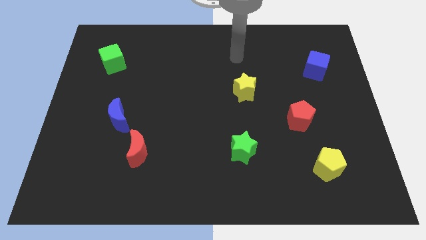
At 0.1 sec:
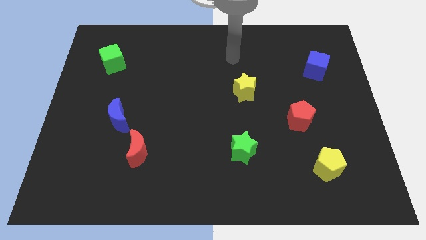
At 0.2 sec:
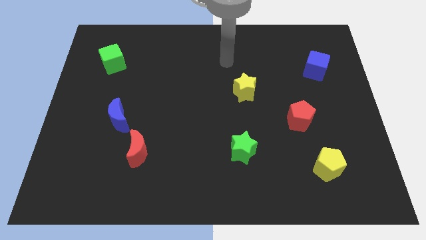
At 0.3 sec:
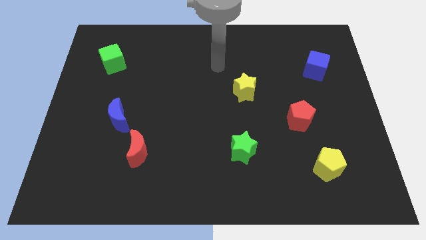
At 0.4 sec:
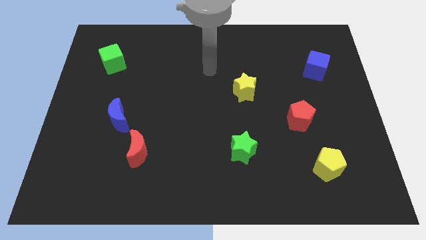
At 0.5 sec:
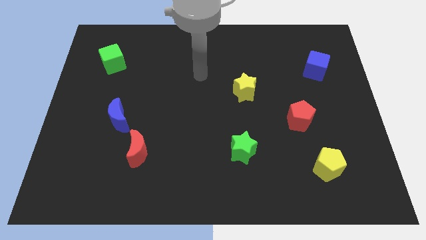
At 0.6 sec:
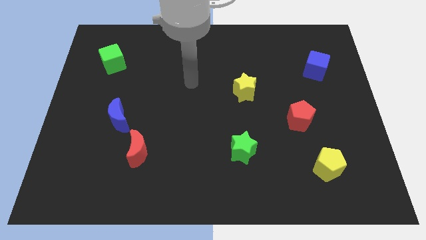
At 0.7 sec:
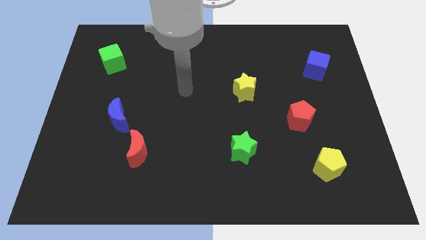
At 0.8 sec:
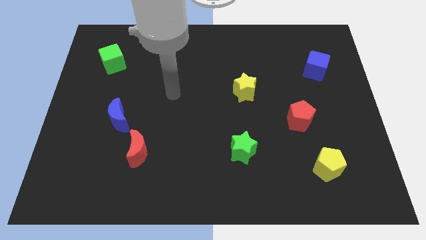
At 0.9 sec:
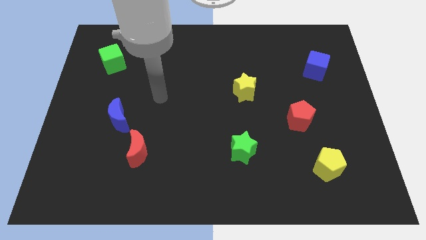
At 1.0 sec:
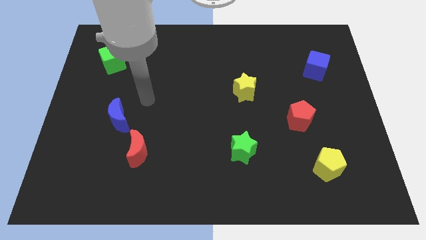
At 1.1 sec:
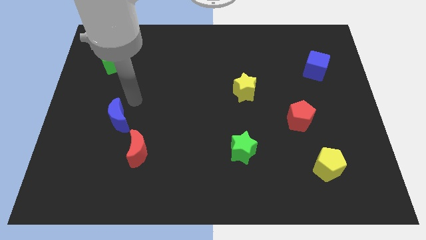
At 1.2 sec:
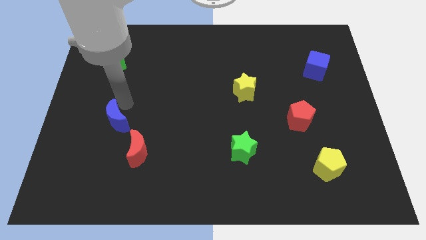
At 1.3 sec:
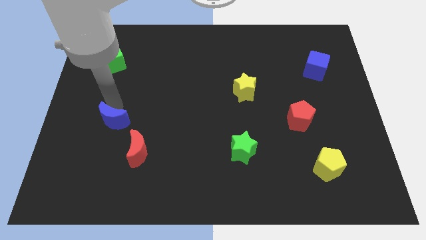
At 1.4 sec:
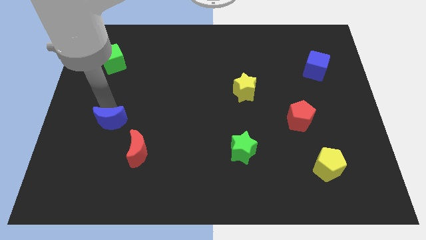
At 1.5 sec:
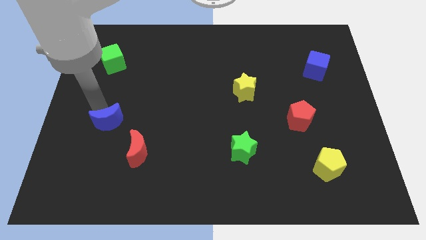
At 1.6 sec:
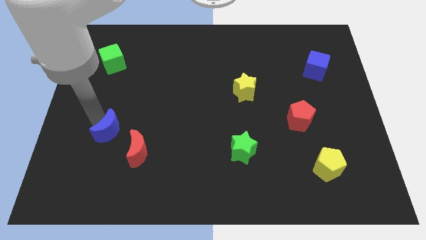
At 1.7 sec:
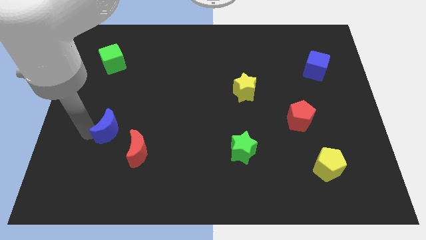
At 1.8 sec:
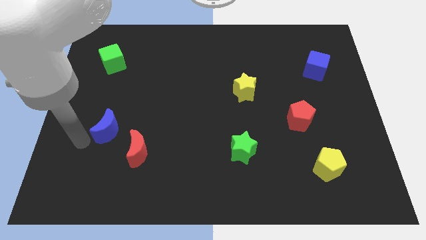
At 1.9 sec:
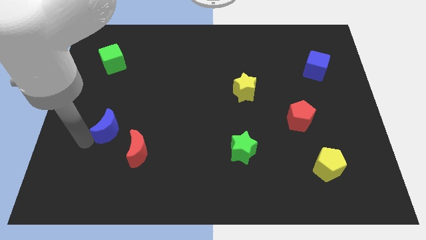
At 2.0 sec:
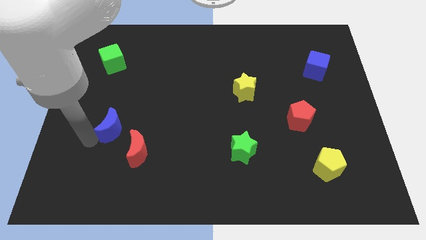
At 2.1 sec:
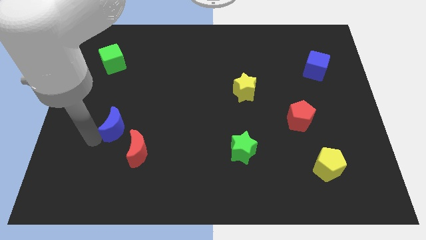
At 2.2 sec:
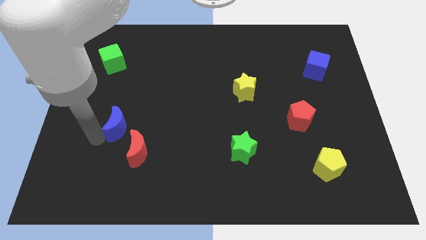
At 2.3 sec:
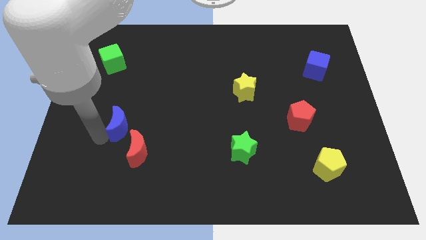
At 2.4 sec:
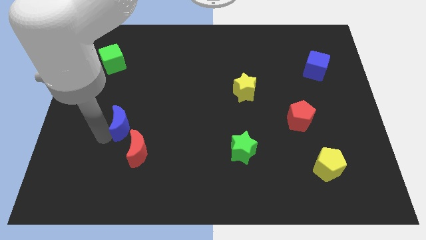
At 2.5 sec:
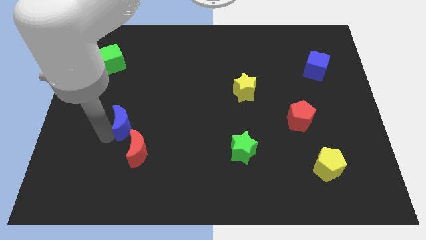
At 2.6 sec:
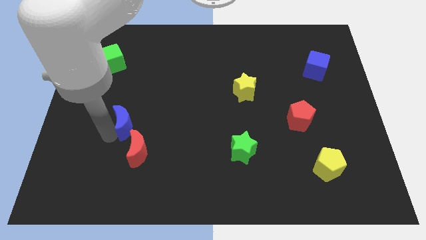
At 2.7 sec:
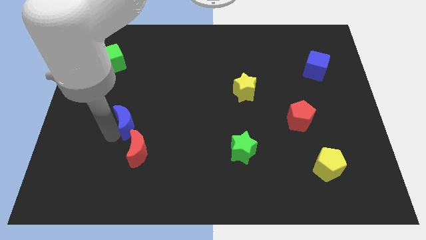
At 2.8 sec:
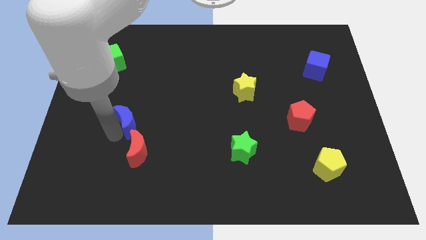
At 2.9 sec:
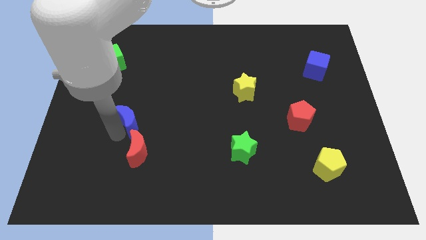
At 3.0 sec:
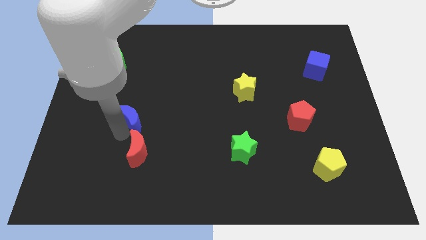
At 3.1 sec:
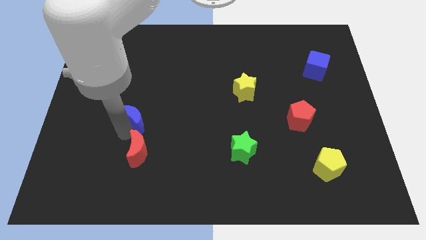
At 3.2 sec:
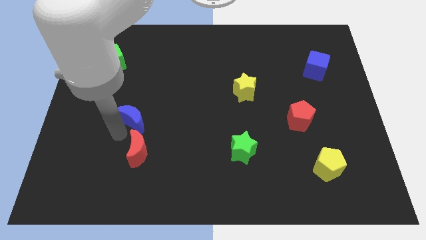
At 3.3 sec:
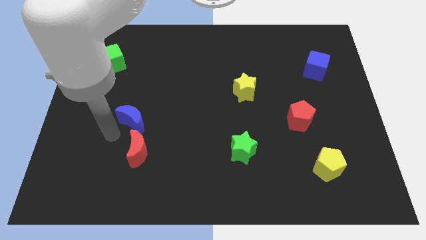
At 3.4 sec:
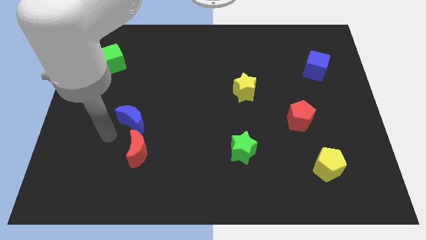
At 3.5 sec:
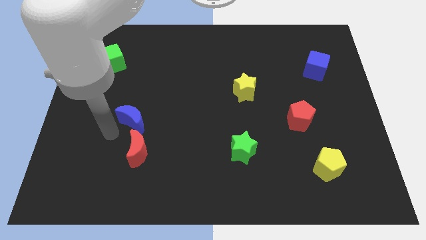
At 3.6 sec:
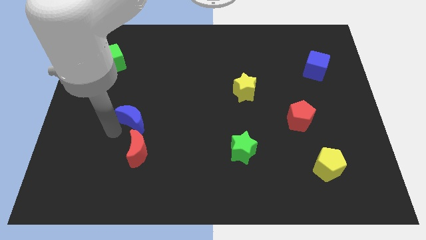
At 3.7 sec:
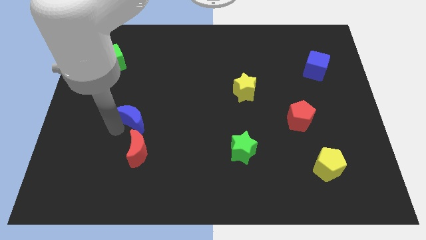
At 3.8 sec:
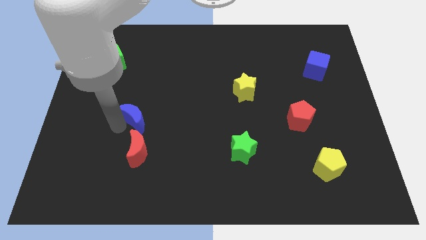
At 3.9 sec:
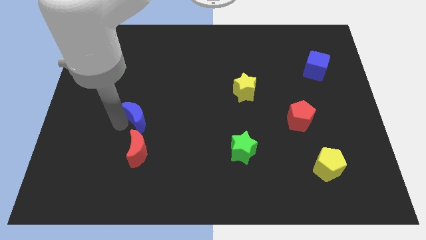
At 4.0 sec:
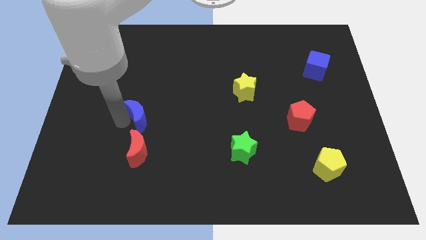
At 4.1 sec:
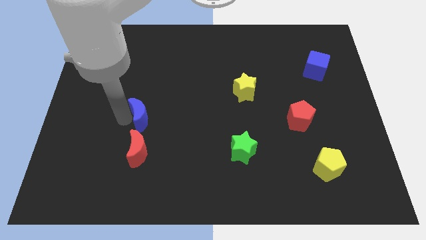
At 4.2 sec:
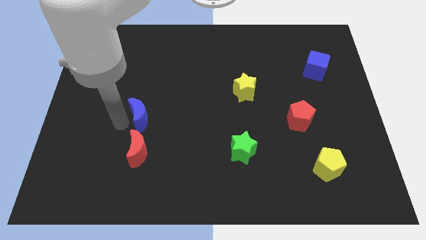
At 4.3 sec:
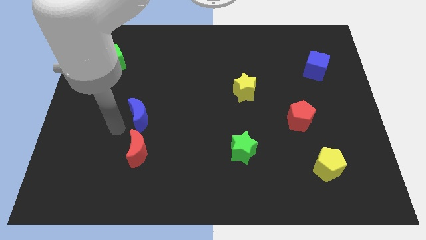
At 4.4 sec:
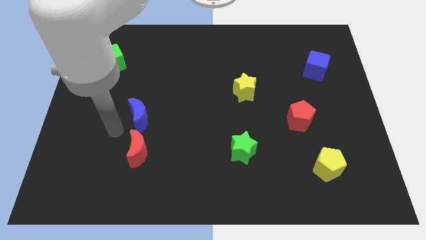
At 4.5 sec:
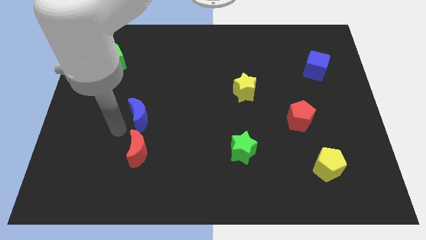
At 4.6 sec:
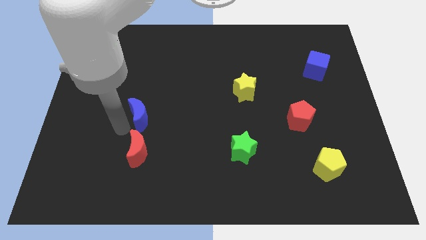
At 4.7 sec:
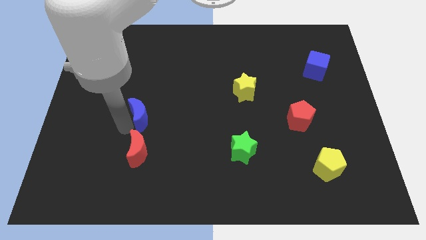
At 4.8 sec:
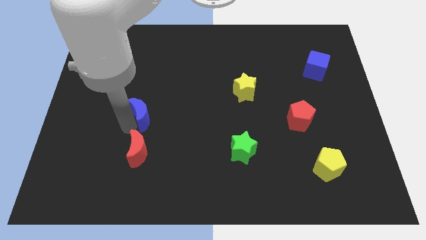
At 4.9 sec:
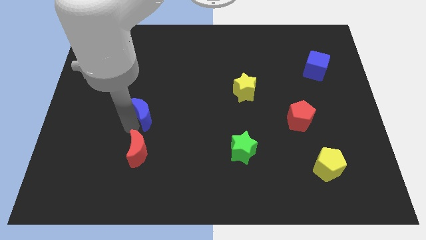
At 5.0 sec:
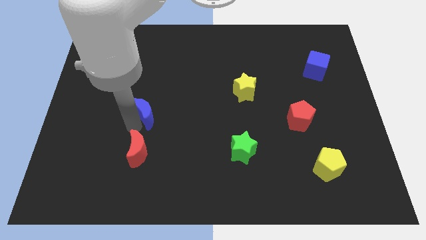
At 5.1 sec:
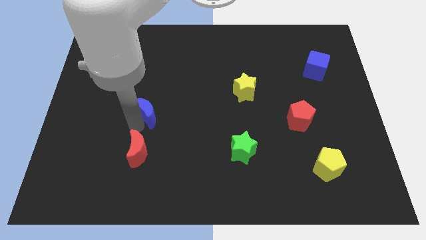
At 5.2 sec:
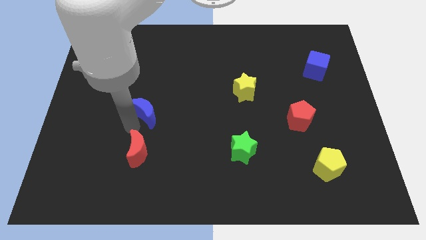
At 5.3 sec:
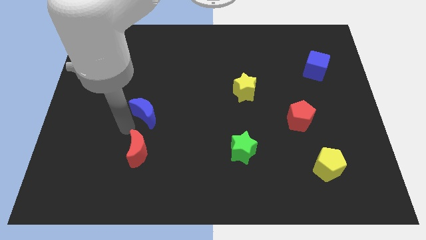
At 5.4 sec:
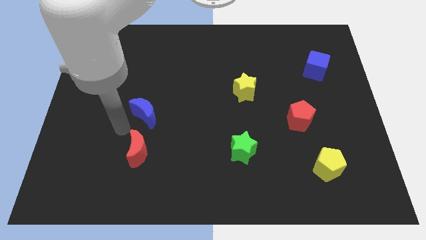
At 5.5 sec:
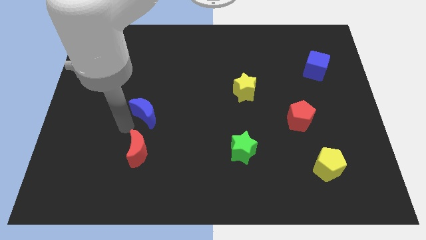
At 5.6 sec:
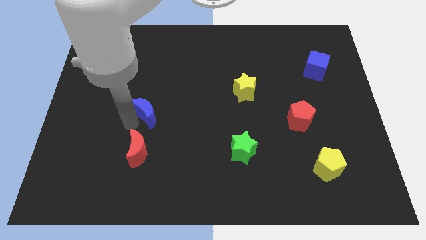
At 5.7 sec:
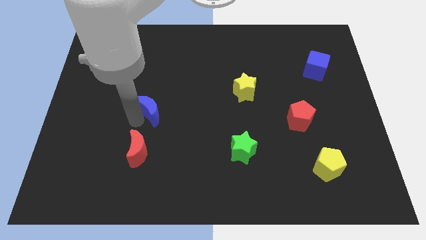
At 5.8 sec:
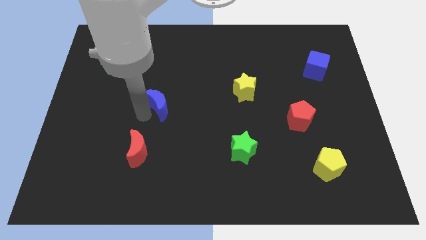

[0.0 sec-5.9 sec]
put the blue moon to the middle

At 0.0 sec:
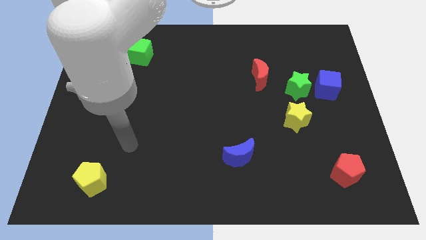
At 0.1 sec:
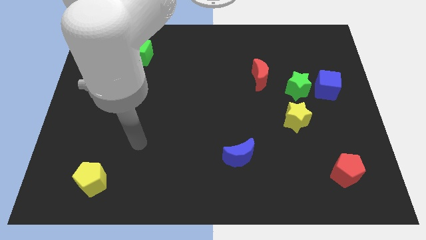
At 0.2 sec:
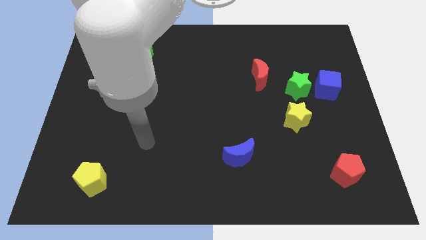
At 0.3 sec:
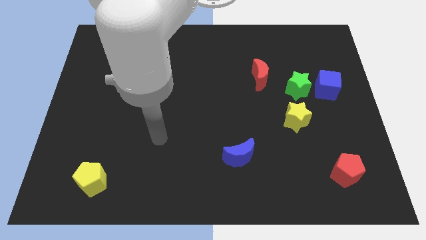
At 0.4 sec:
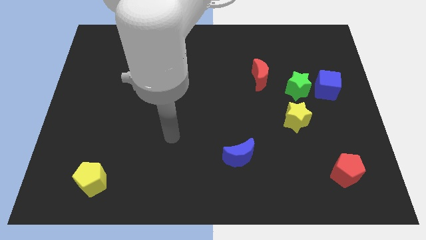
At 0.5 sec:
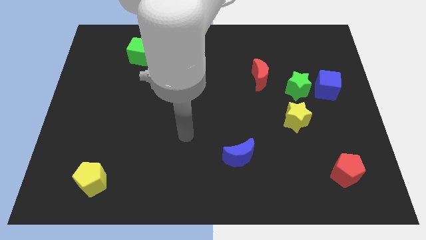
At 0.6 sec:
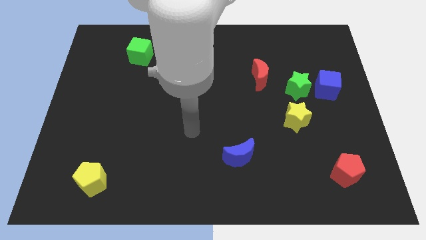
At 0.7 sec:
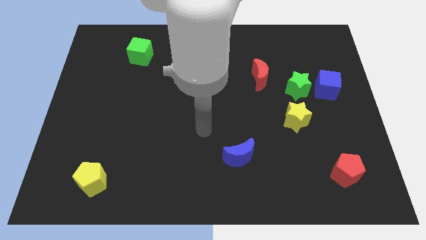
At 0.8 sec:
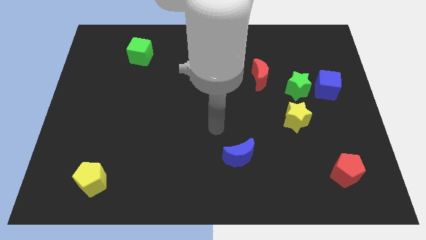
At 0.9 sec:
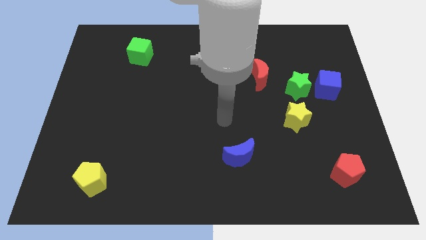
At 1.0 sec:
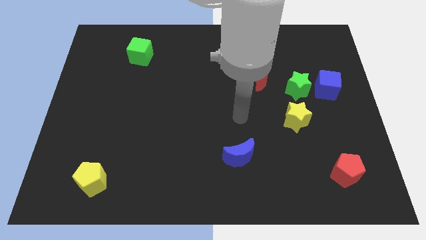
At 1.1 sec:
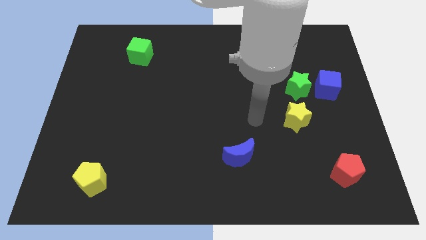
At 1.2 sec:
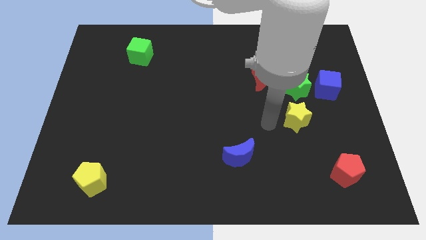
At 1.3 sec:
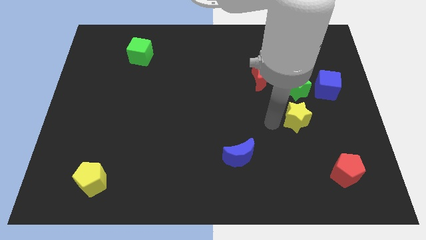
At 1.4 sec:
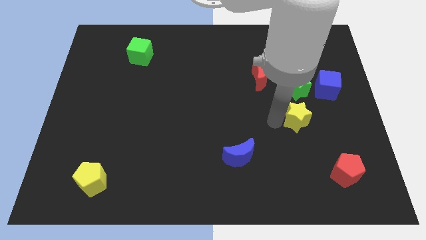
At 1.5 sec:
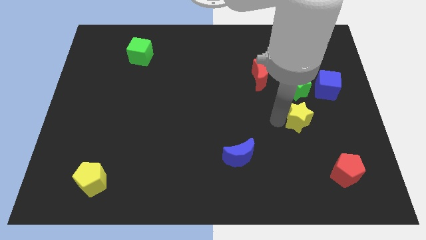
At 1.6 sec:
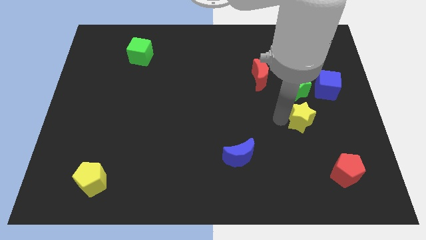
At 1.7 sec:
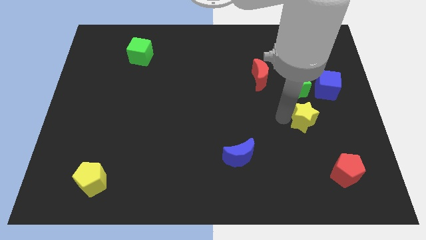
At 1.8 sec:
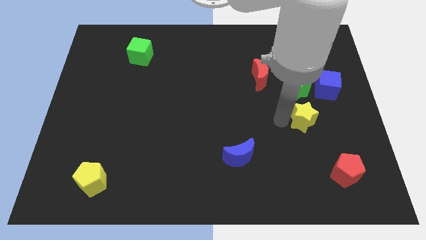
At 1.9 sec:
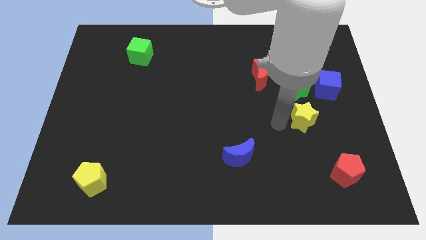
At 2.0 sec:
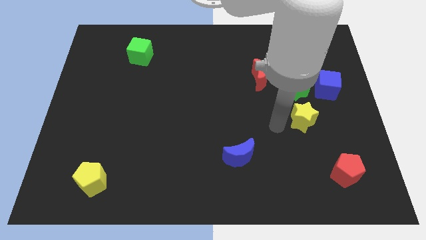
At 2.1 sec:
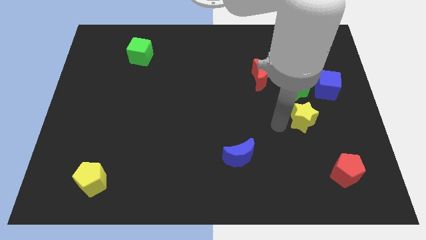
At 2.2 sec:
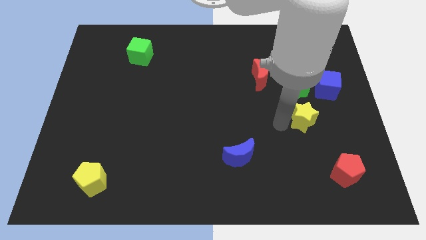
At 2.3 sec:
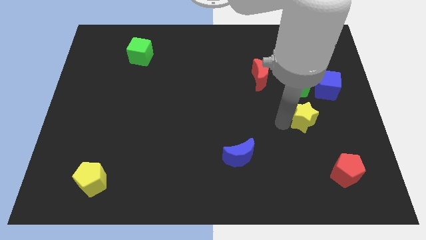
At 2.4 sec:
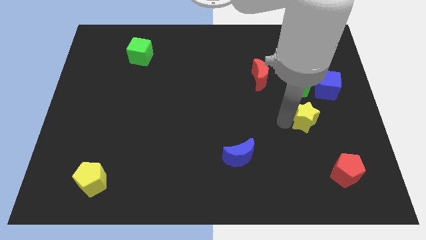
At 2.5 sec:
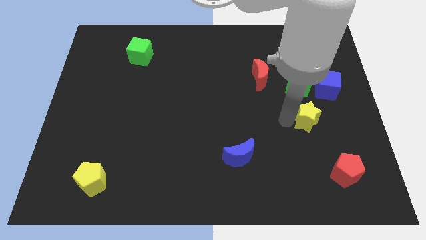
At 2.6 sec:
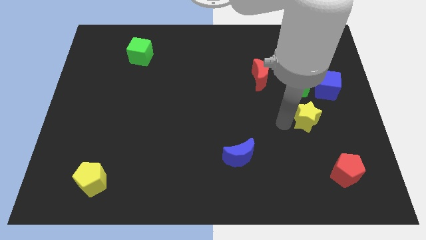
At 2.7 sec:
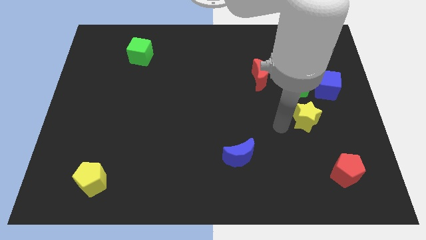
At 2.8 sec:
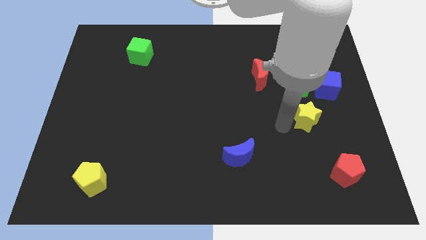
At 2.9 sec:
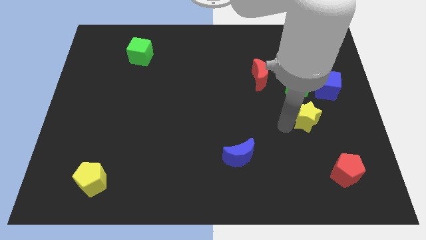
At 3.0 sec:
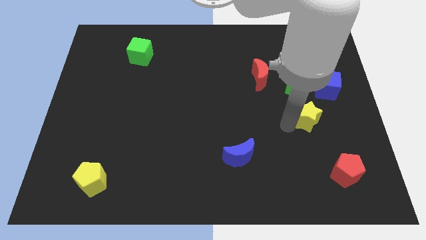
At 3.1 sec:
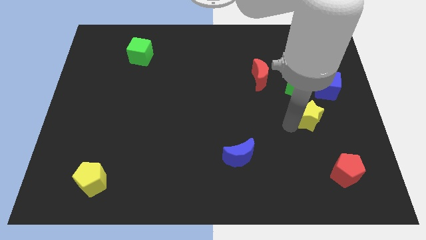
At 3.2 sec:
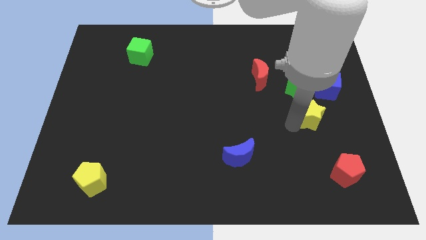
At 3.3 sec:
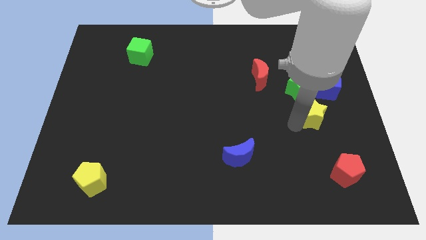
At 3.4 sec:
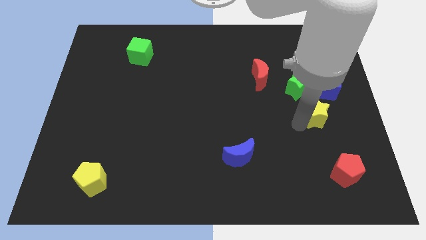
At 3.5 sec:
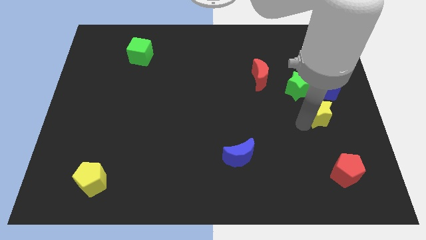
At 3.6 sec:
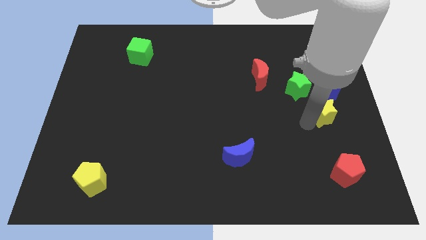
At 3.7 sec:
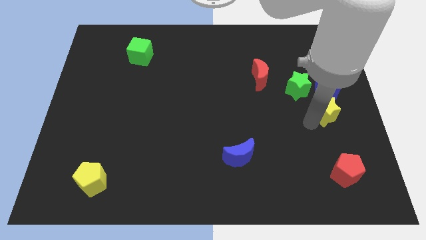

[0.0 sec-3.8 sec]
move the yellow star to the right side
